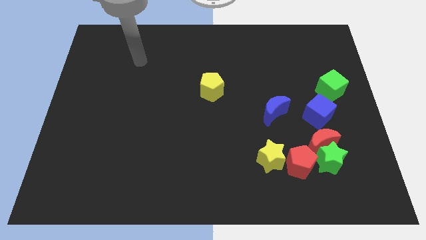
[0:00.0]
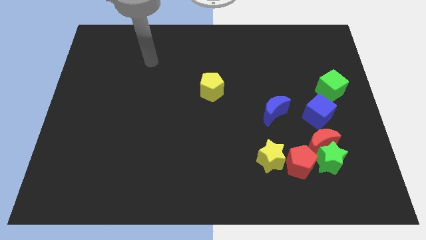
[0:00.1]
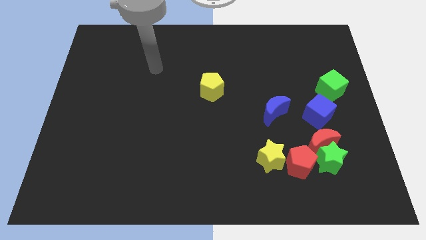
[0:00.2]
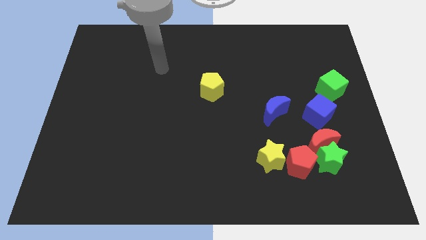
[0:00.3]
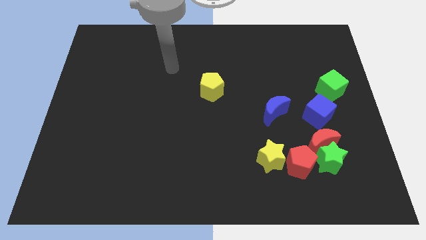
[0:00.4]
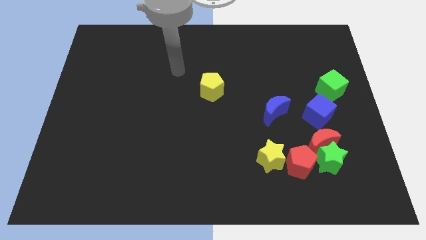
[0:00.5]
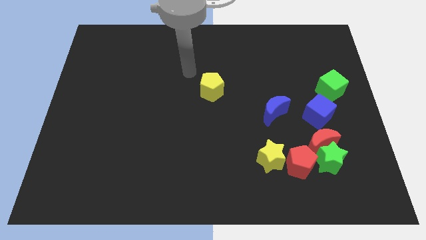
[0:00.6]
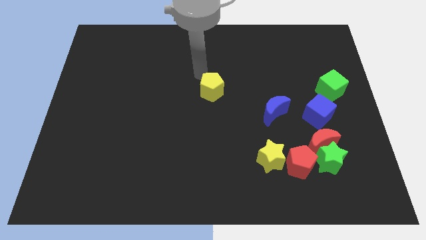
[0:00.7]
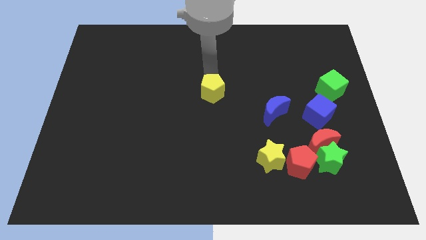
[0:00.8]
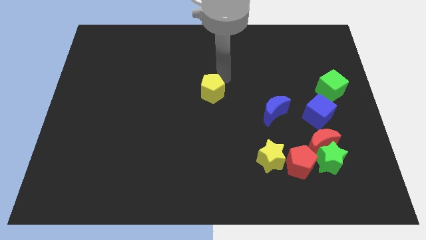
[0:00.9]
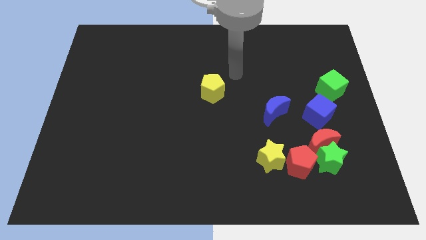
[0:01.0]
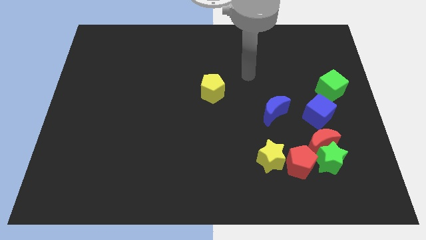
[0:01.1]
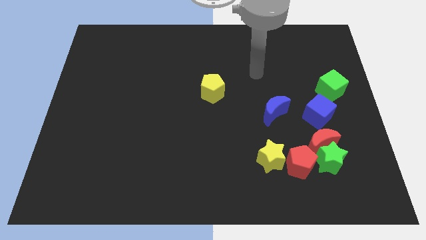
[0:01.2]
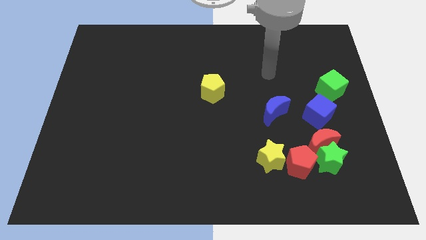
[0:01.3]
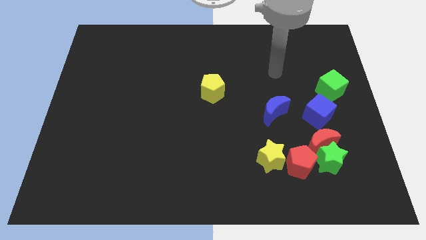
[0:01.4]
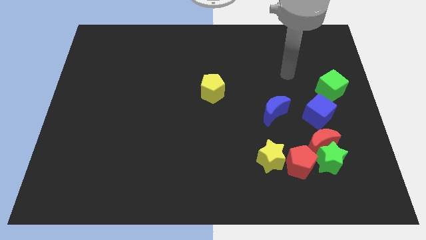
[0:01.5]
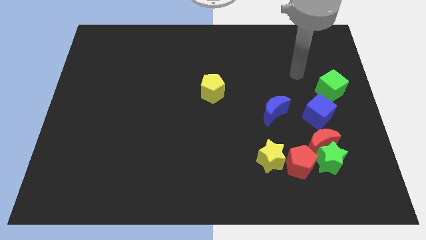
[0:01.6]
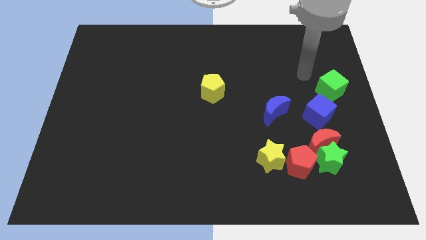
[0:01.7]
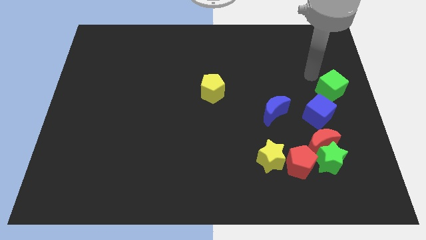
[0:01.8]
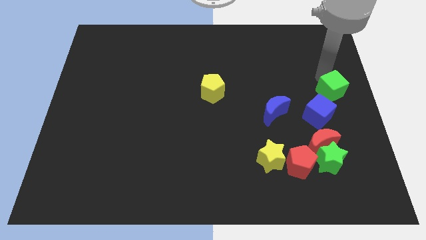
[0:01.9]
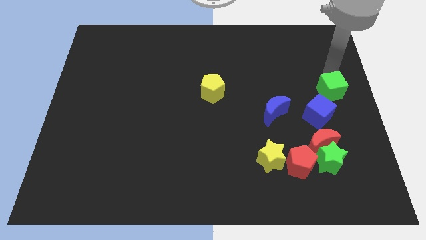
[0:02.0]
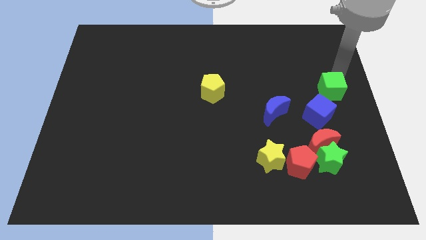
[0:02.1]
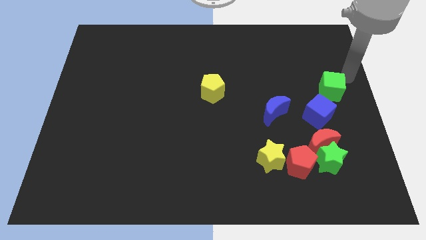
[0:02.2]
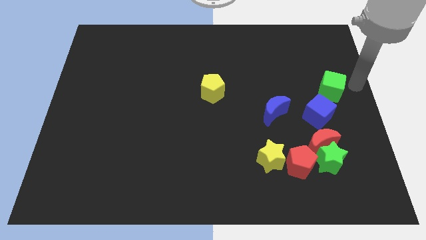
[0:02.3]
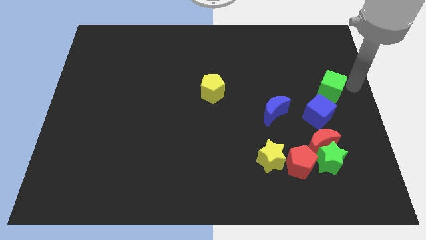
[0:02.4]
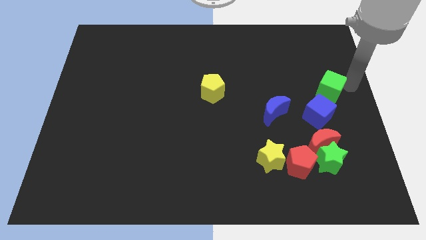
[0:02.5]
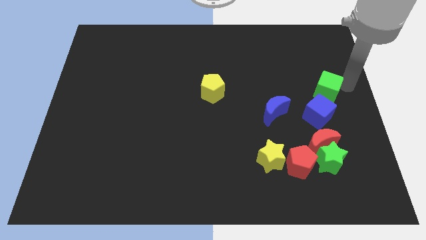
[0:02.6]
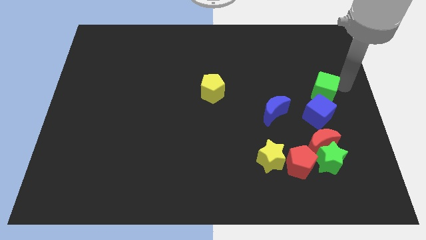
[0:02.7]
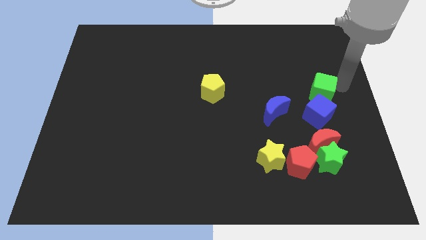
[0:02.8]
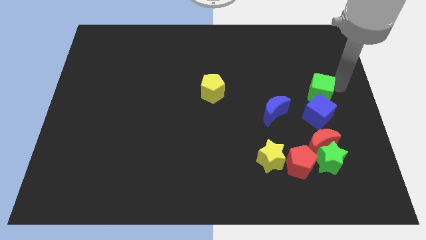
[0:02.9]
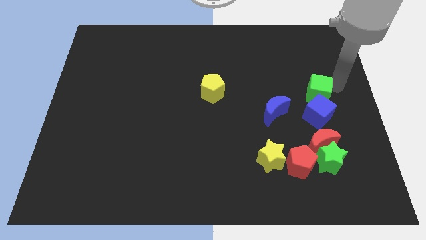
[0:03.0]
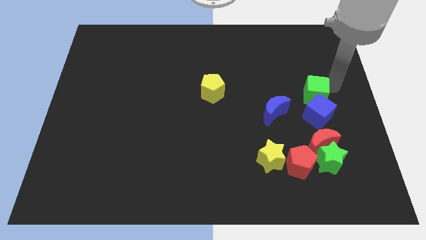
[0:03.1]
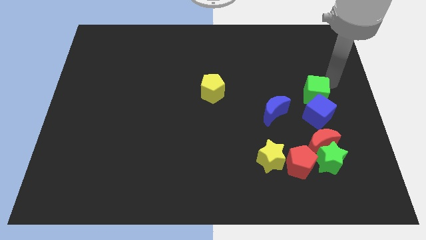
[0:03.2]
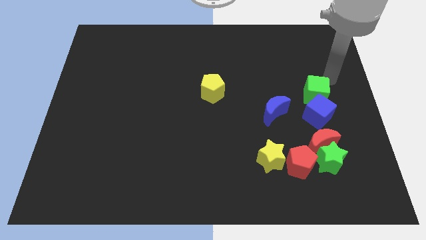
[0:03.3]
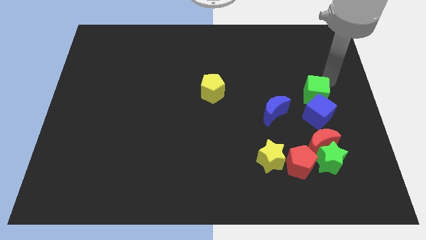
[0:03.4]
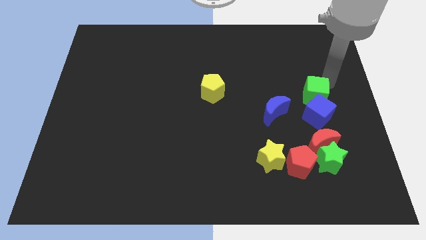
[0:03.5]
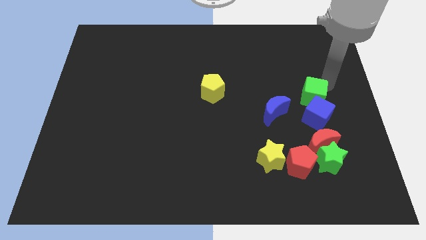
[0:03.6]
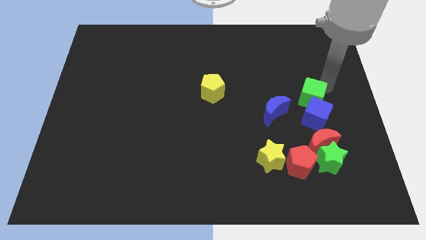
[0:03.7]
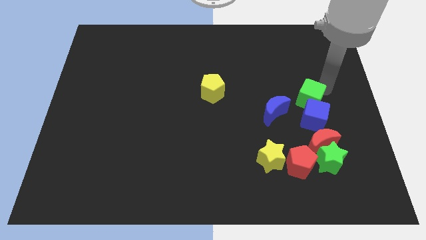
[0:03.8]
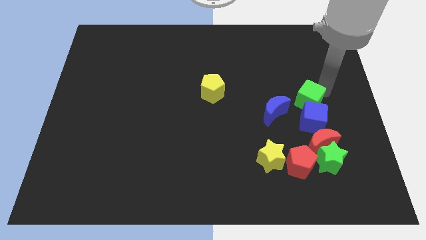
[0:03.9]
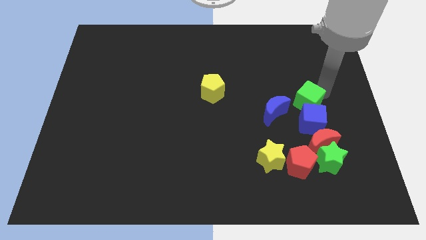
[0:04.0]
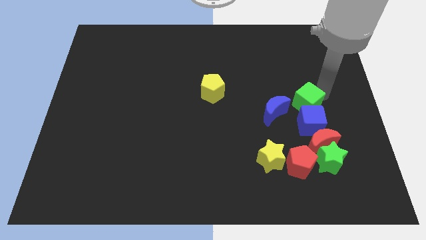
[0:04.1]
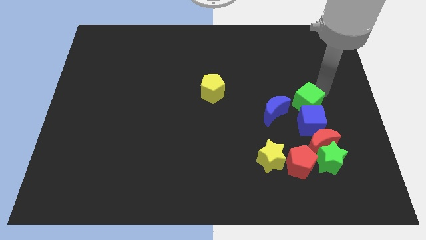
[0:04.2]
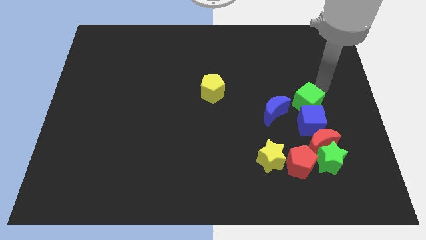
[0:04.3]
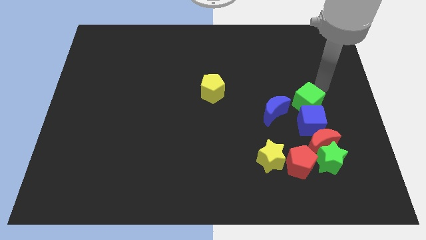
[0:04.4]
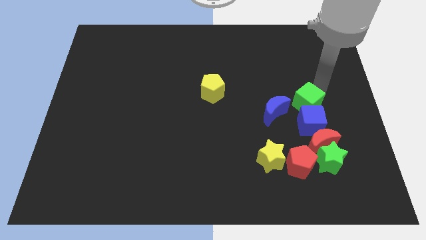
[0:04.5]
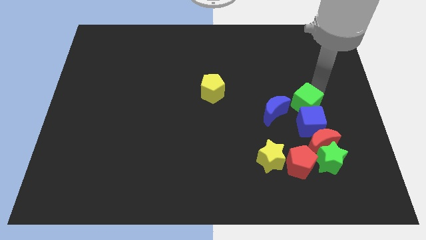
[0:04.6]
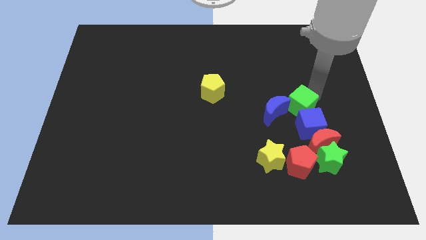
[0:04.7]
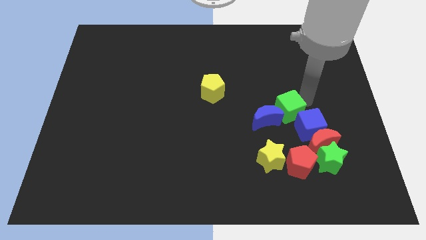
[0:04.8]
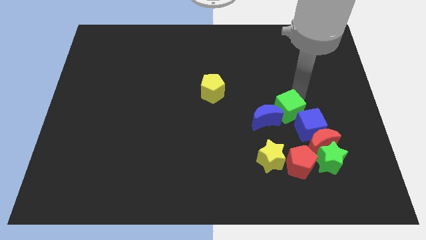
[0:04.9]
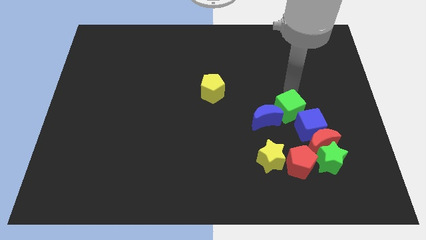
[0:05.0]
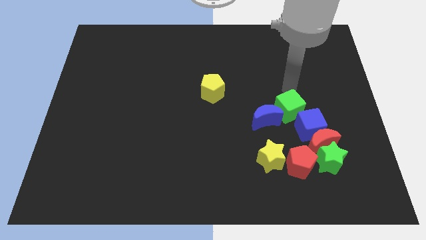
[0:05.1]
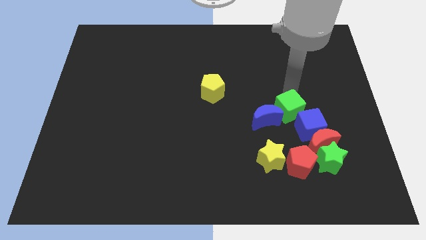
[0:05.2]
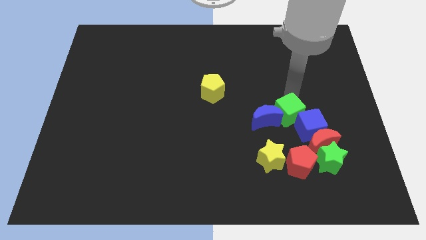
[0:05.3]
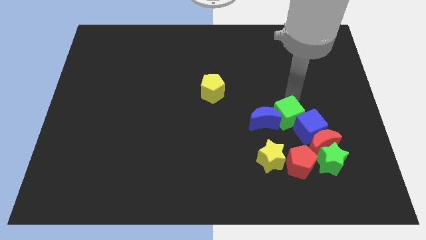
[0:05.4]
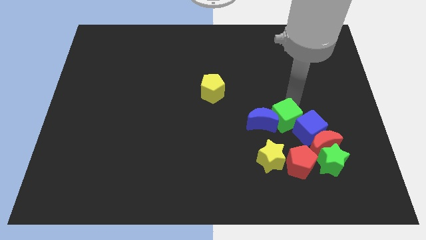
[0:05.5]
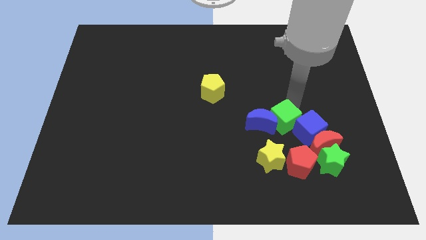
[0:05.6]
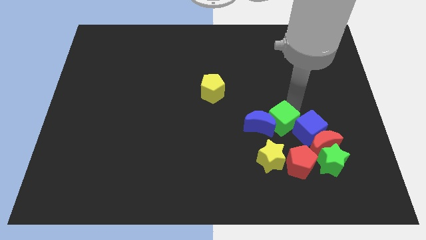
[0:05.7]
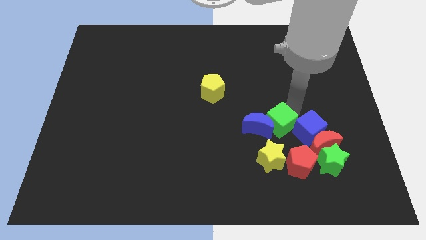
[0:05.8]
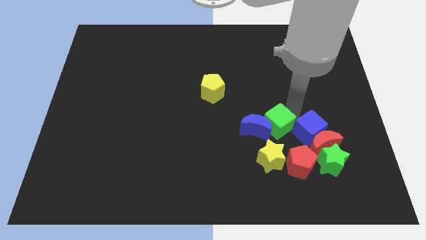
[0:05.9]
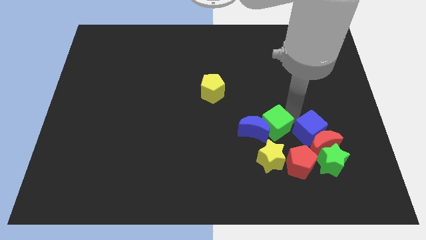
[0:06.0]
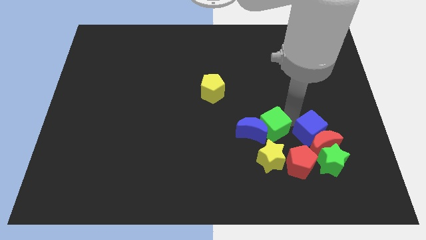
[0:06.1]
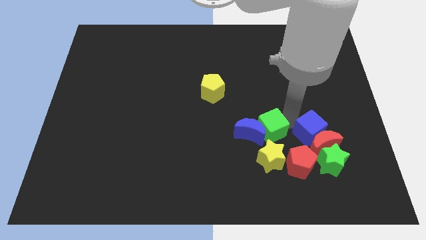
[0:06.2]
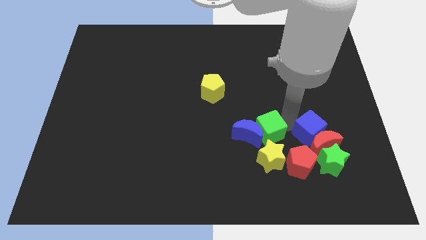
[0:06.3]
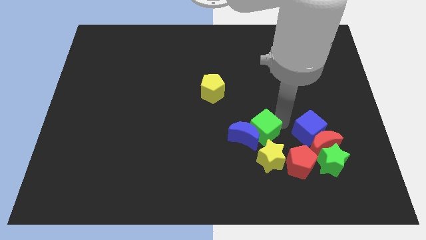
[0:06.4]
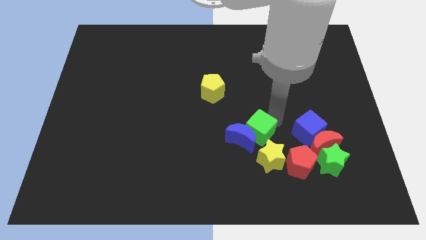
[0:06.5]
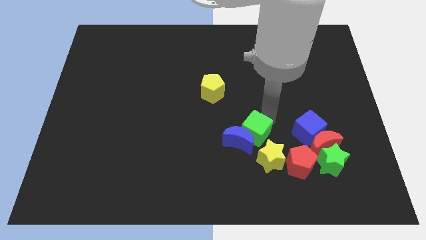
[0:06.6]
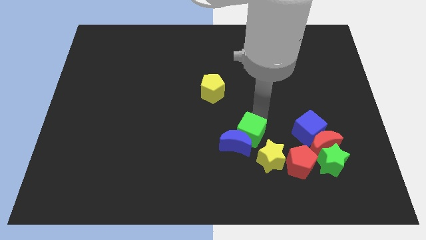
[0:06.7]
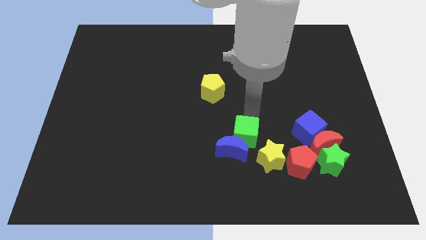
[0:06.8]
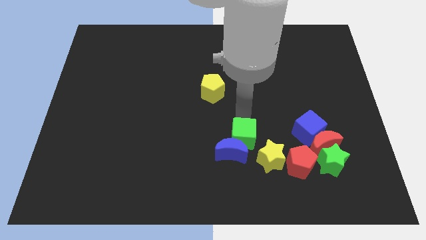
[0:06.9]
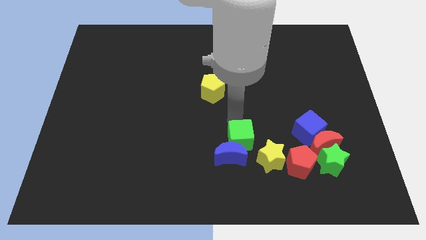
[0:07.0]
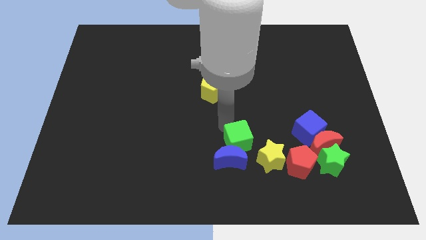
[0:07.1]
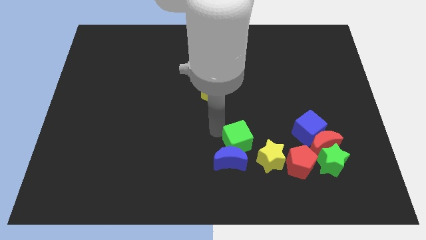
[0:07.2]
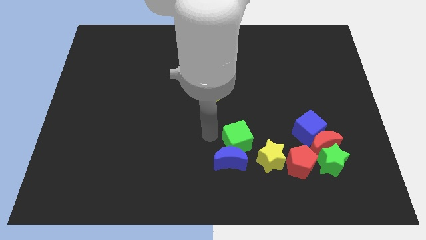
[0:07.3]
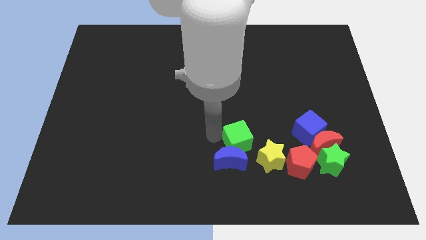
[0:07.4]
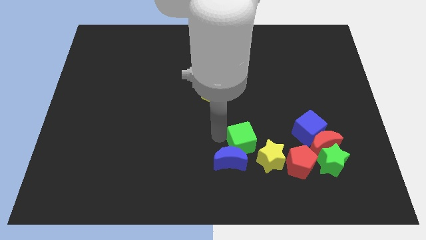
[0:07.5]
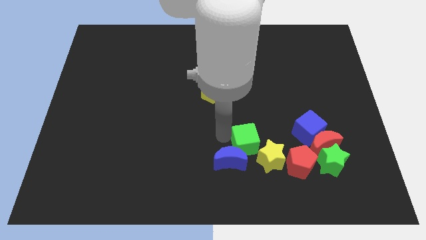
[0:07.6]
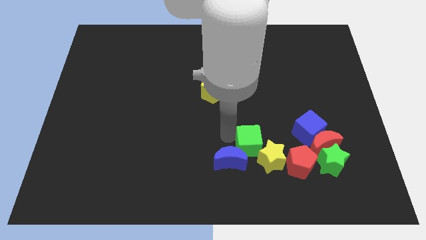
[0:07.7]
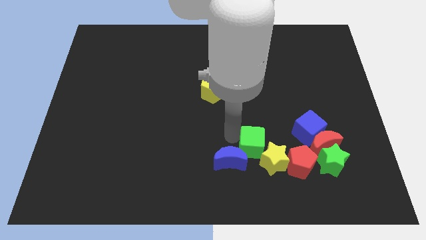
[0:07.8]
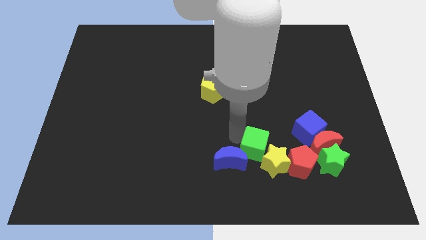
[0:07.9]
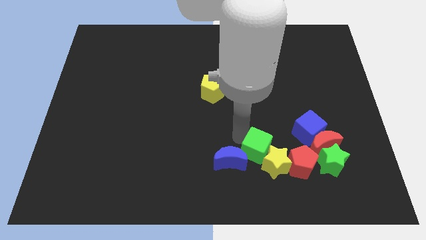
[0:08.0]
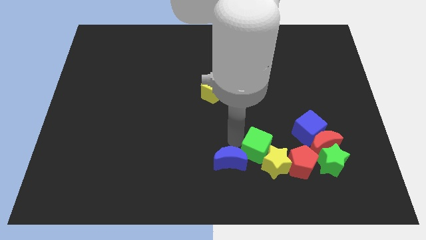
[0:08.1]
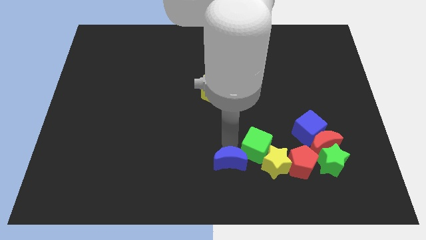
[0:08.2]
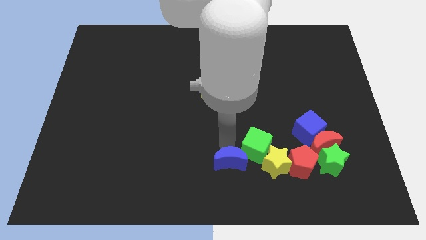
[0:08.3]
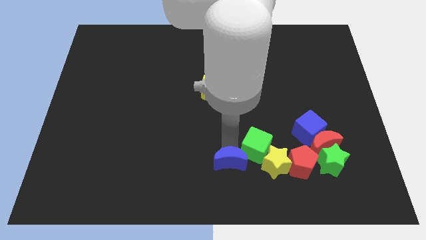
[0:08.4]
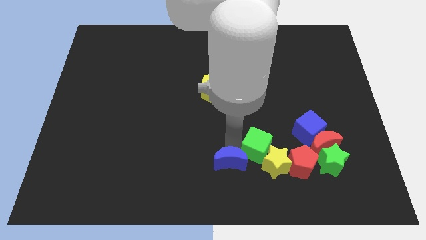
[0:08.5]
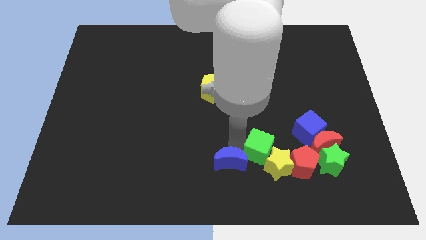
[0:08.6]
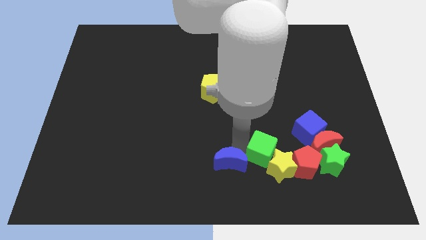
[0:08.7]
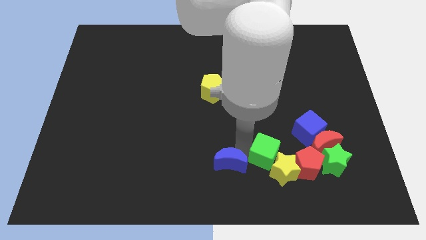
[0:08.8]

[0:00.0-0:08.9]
push the green cube to the bottom left of the blue cube
